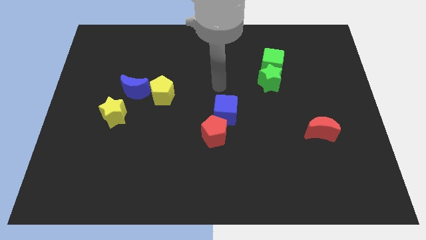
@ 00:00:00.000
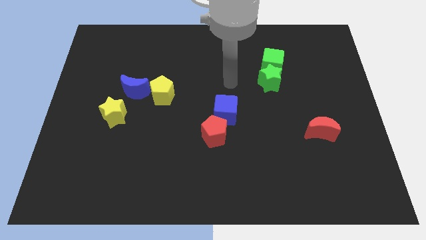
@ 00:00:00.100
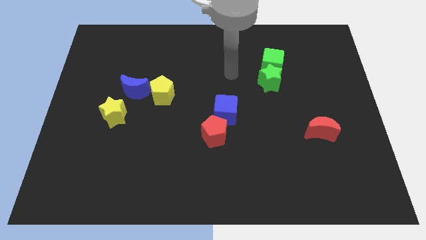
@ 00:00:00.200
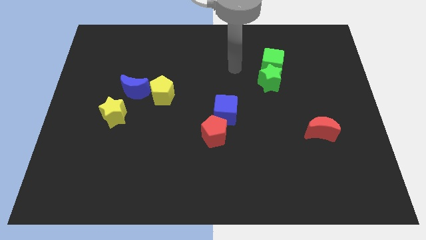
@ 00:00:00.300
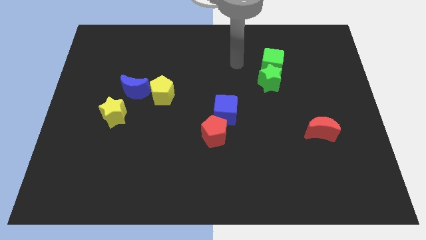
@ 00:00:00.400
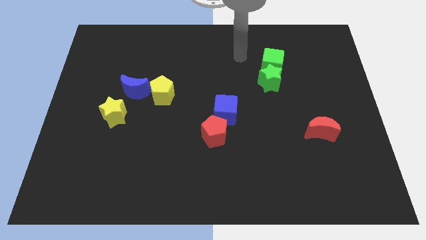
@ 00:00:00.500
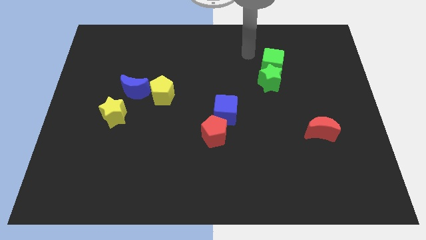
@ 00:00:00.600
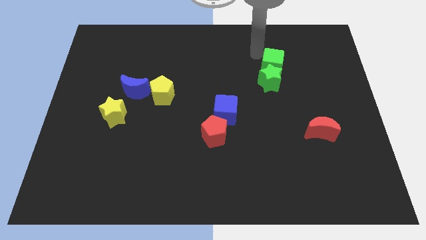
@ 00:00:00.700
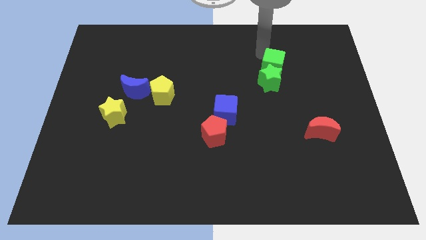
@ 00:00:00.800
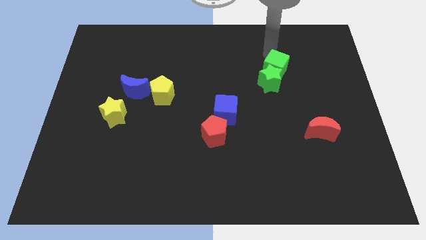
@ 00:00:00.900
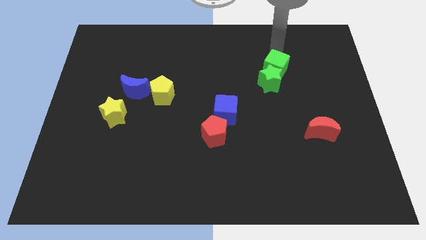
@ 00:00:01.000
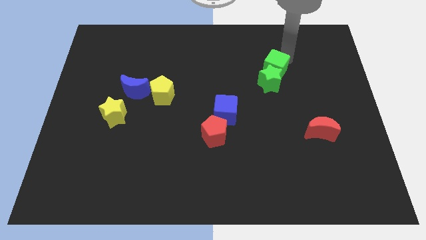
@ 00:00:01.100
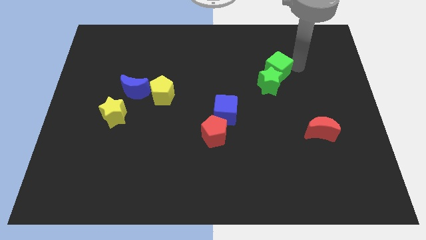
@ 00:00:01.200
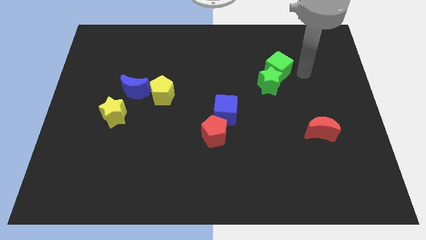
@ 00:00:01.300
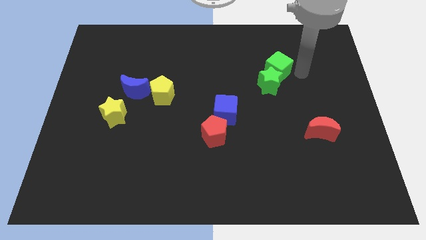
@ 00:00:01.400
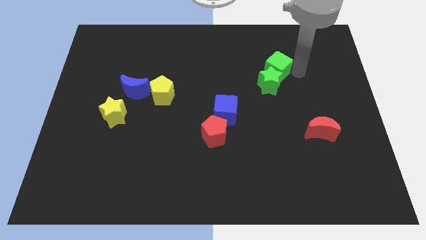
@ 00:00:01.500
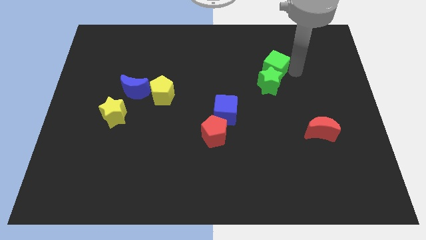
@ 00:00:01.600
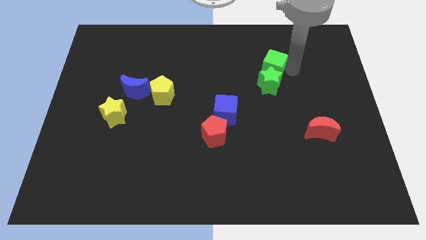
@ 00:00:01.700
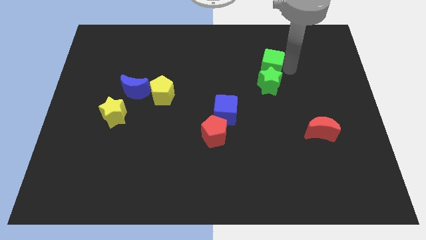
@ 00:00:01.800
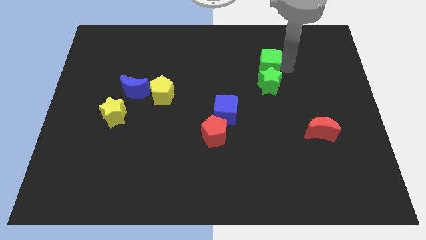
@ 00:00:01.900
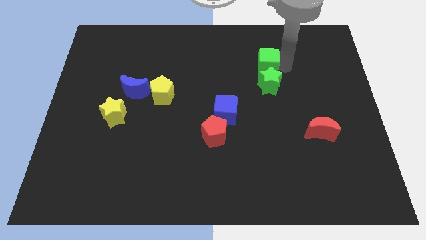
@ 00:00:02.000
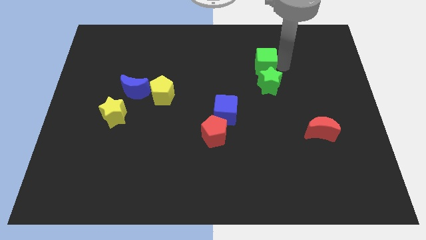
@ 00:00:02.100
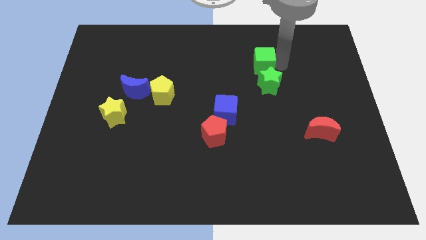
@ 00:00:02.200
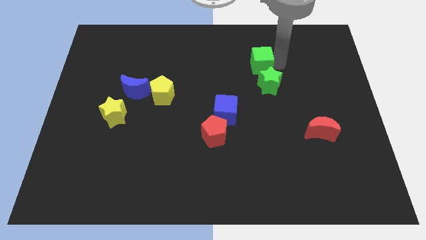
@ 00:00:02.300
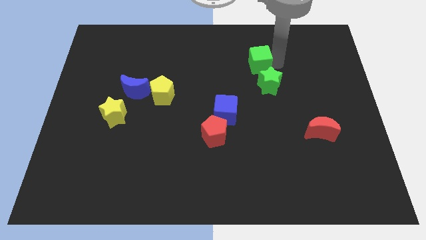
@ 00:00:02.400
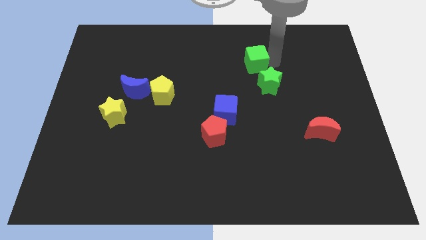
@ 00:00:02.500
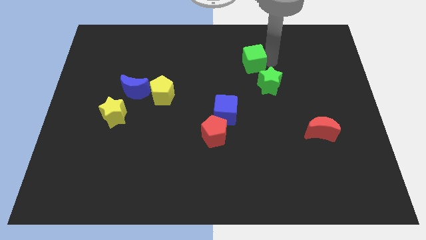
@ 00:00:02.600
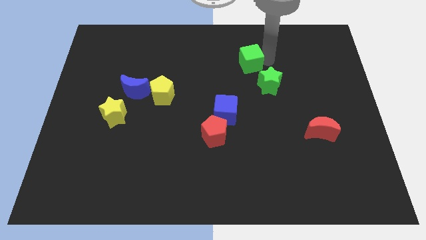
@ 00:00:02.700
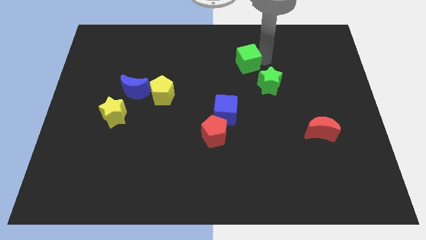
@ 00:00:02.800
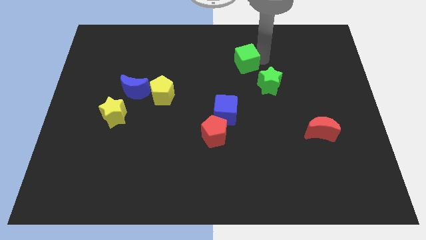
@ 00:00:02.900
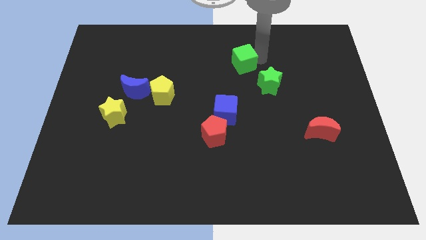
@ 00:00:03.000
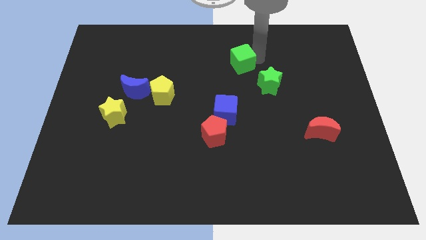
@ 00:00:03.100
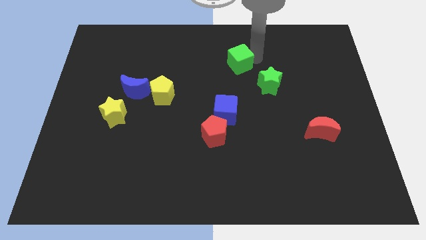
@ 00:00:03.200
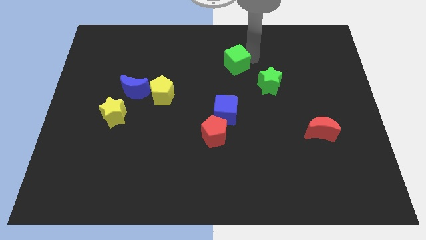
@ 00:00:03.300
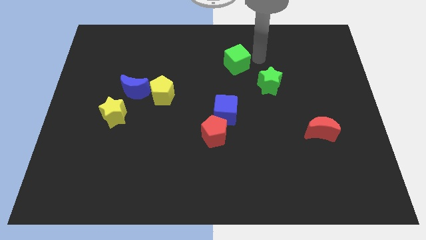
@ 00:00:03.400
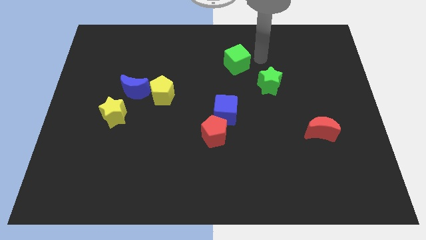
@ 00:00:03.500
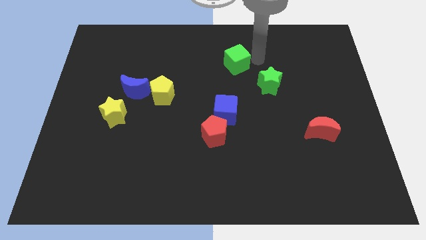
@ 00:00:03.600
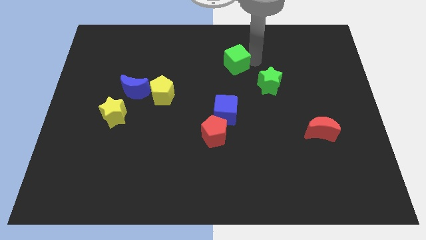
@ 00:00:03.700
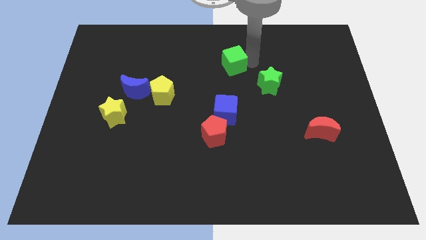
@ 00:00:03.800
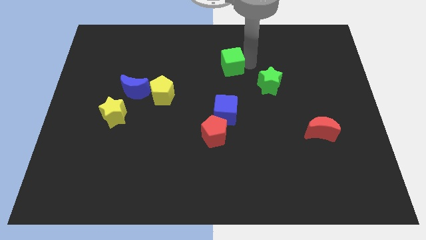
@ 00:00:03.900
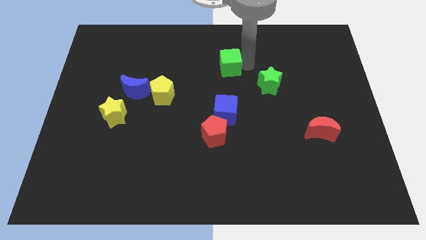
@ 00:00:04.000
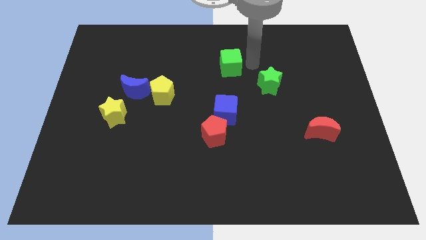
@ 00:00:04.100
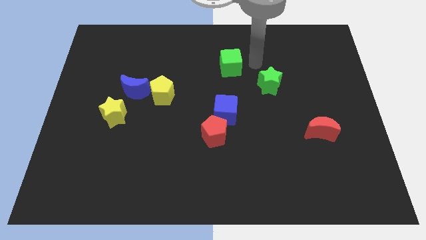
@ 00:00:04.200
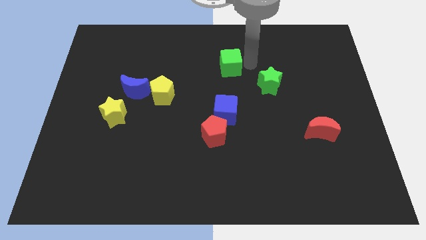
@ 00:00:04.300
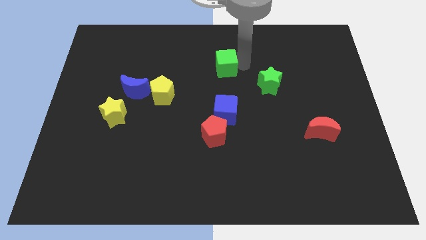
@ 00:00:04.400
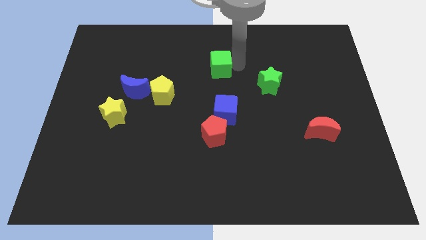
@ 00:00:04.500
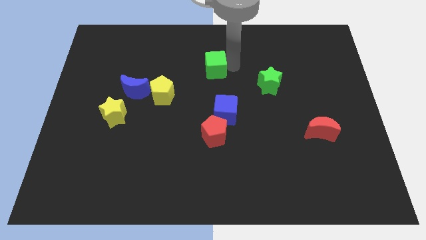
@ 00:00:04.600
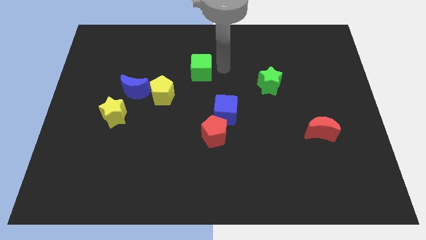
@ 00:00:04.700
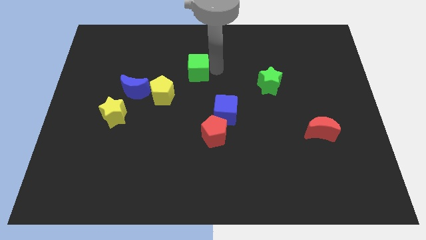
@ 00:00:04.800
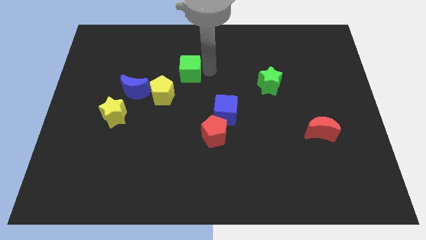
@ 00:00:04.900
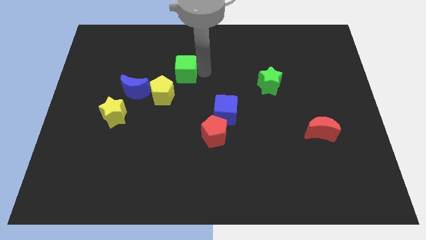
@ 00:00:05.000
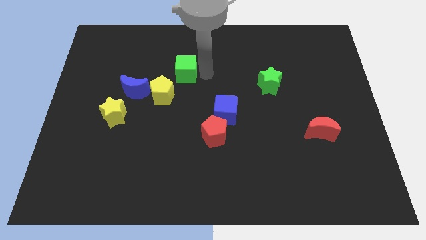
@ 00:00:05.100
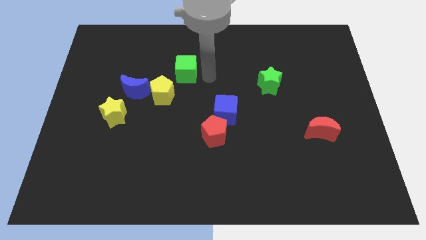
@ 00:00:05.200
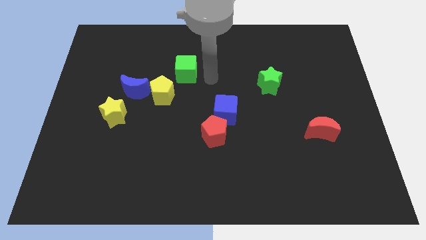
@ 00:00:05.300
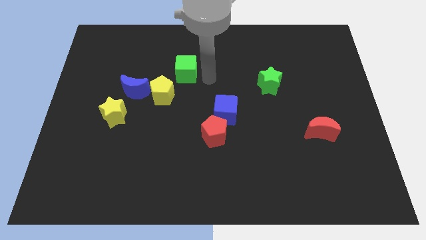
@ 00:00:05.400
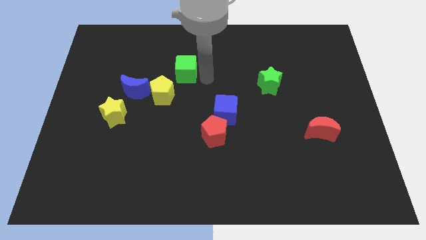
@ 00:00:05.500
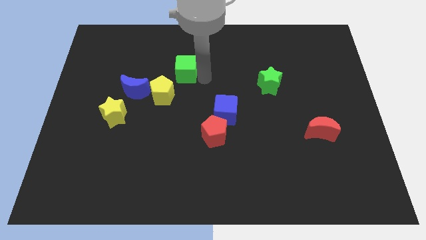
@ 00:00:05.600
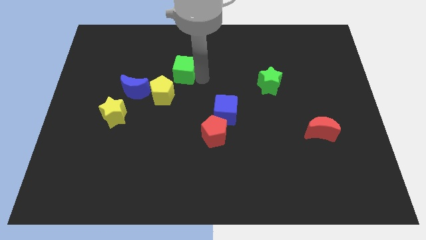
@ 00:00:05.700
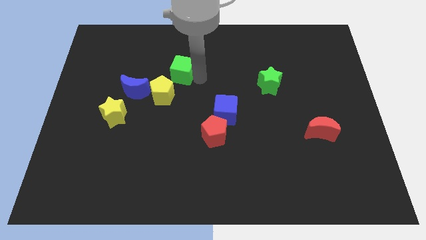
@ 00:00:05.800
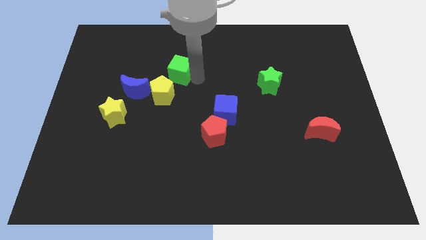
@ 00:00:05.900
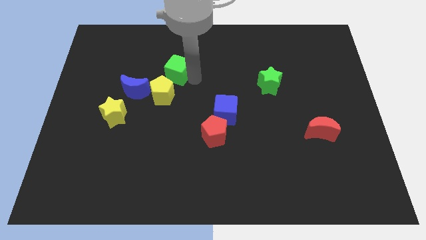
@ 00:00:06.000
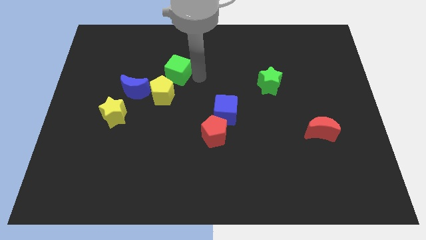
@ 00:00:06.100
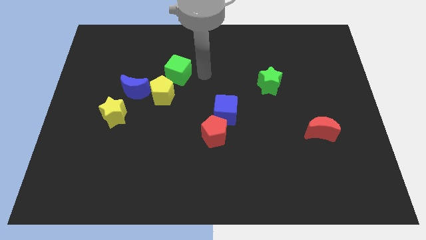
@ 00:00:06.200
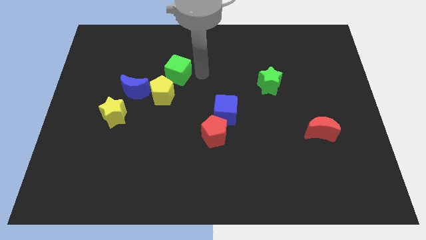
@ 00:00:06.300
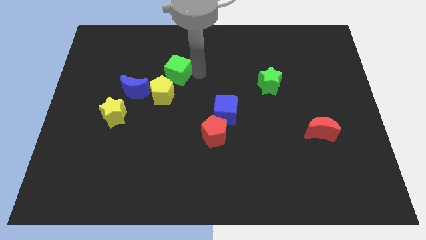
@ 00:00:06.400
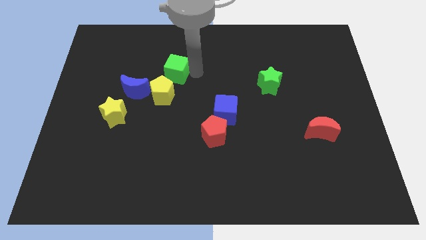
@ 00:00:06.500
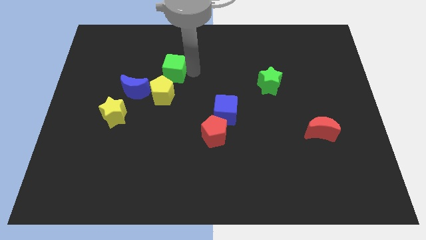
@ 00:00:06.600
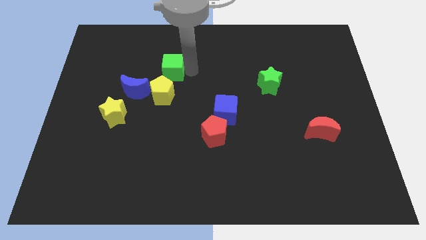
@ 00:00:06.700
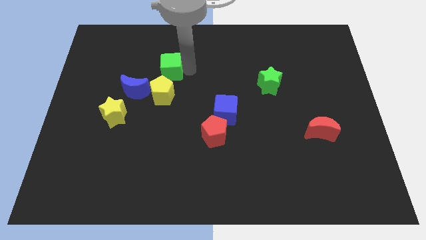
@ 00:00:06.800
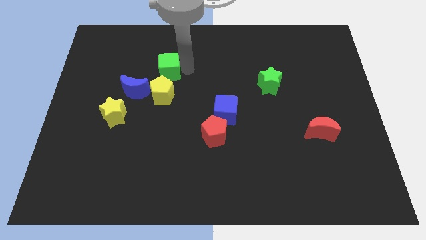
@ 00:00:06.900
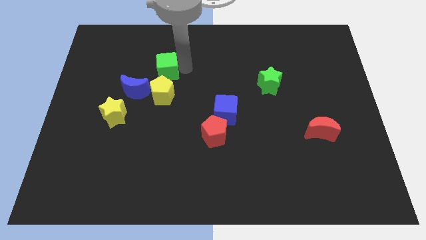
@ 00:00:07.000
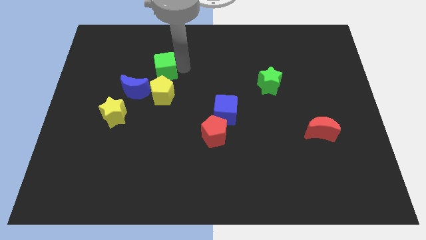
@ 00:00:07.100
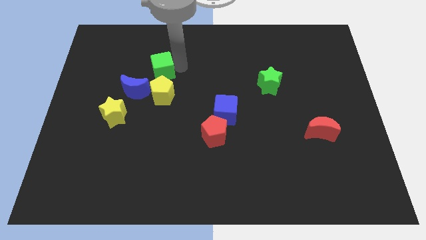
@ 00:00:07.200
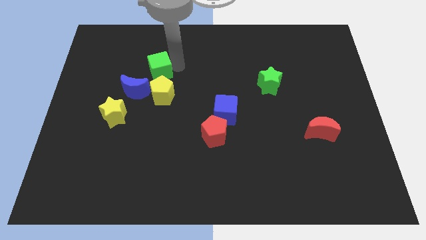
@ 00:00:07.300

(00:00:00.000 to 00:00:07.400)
move the green cube diagonally up and to the left of the yellow pentagon
